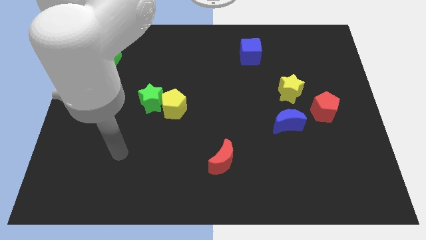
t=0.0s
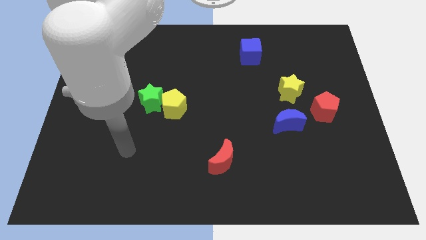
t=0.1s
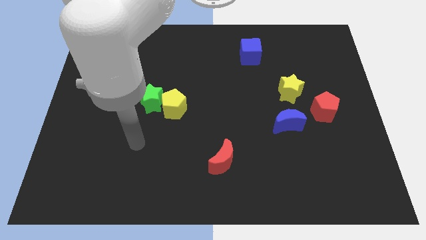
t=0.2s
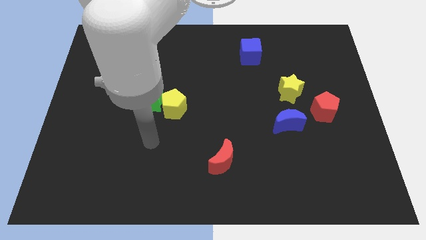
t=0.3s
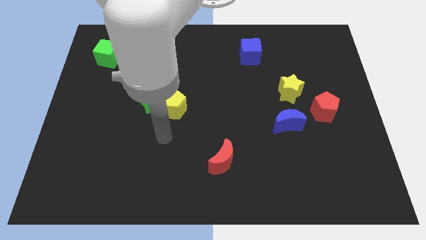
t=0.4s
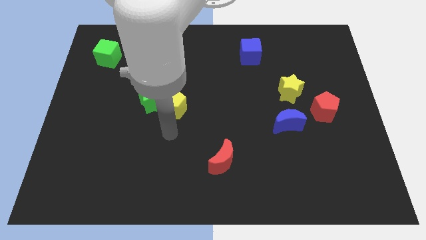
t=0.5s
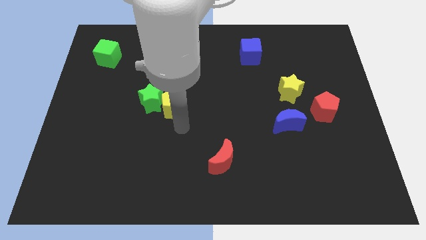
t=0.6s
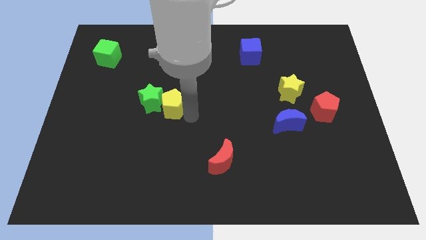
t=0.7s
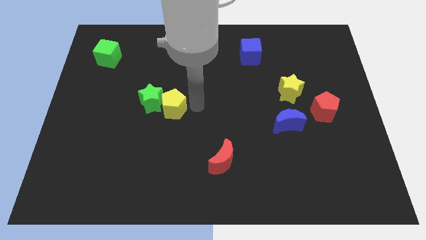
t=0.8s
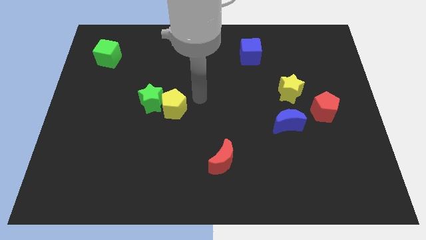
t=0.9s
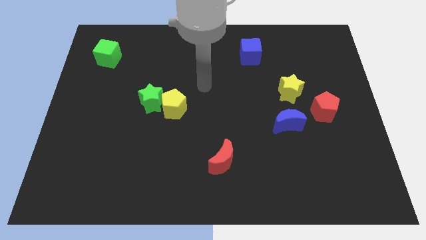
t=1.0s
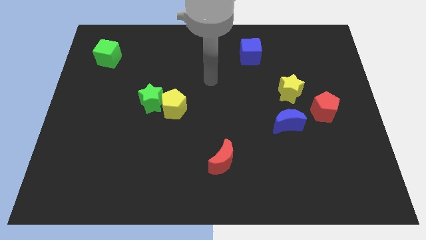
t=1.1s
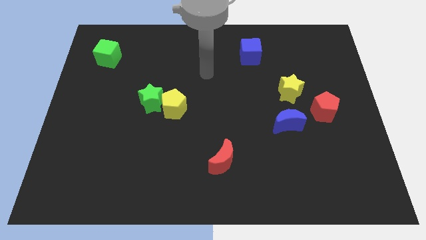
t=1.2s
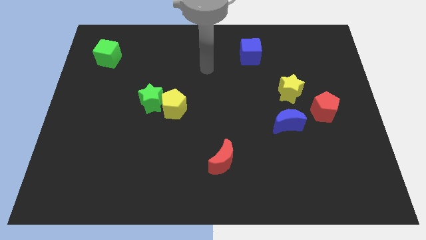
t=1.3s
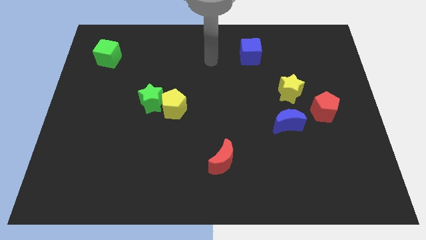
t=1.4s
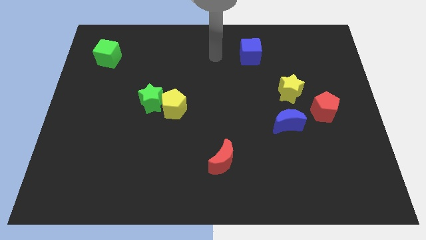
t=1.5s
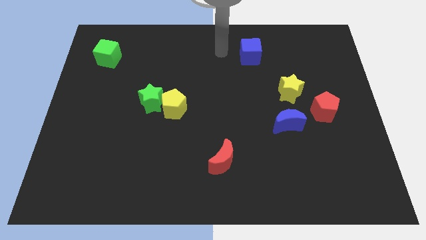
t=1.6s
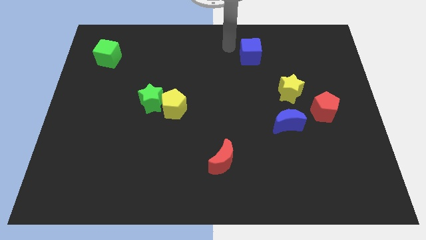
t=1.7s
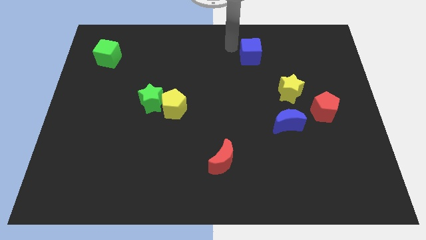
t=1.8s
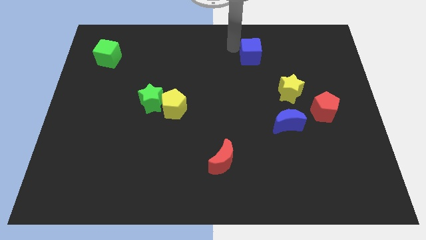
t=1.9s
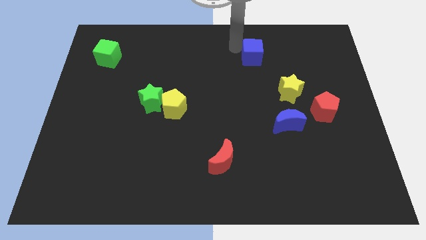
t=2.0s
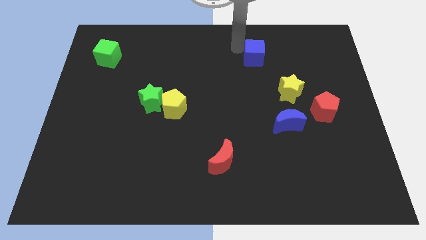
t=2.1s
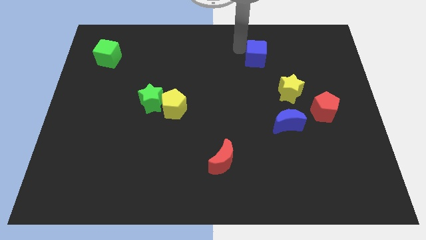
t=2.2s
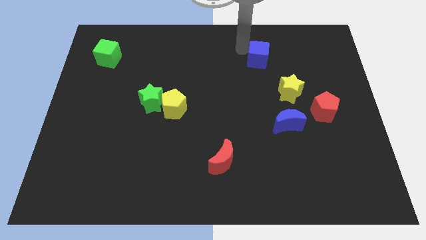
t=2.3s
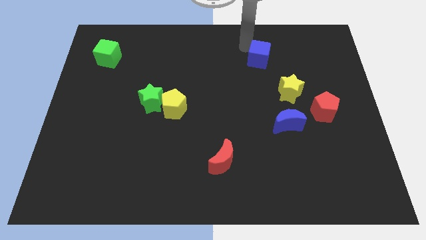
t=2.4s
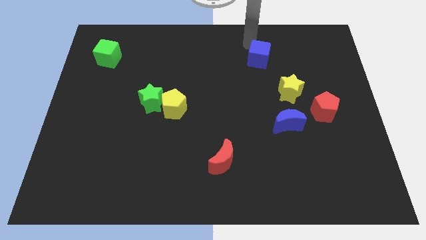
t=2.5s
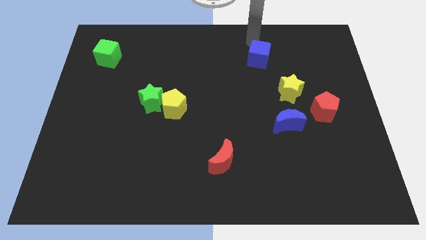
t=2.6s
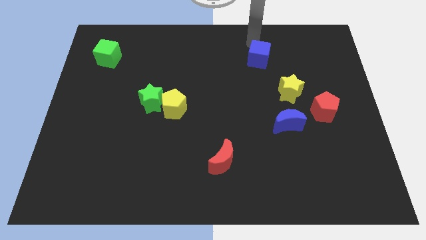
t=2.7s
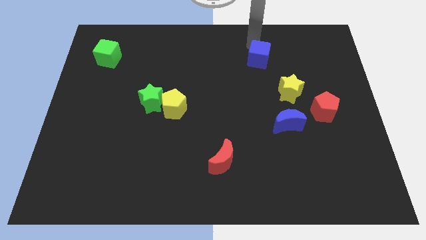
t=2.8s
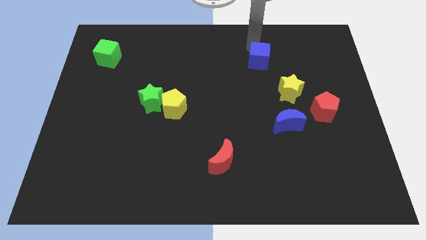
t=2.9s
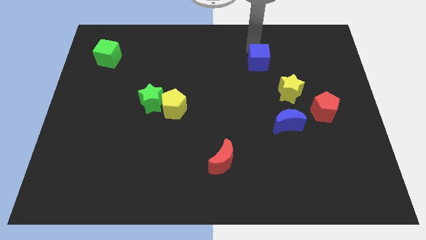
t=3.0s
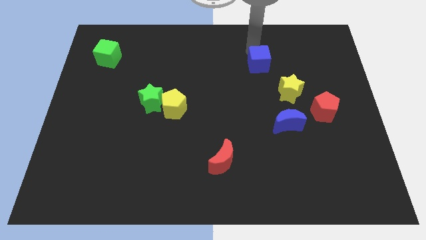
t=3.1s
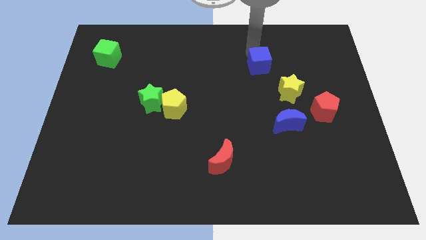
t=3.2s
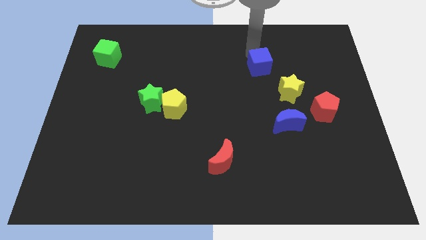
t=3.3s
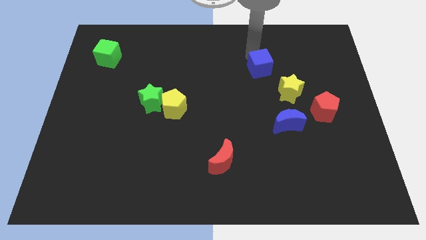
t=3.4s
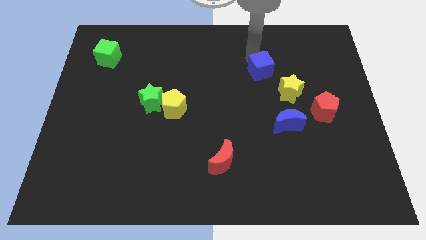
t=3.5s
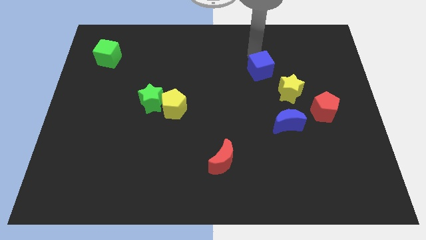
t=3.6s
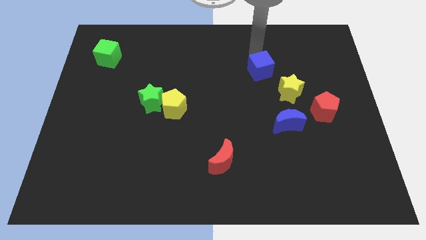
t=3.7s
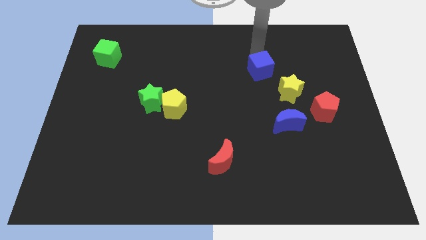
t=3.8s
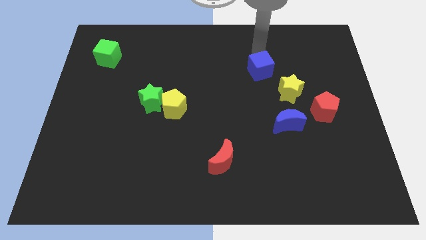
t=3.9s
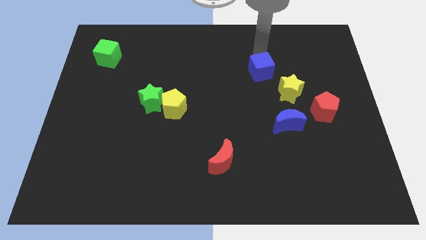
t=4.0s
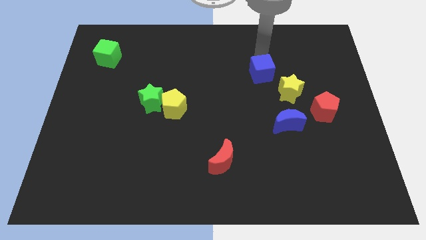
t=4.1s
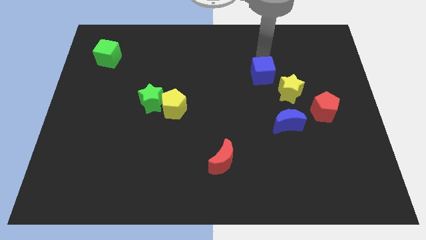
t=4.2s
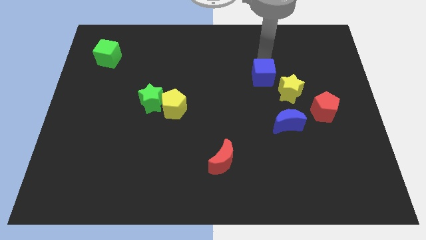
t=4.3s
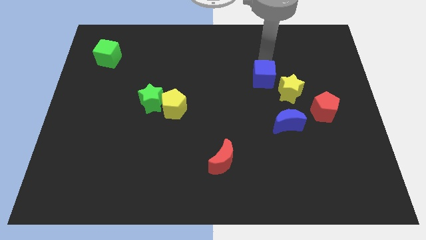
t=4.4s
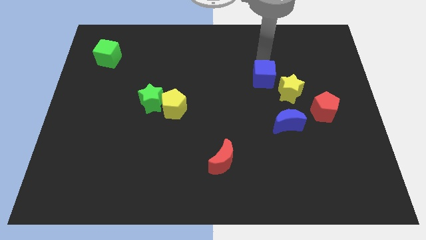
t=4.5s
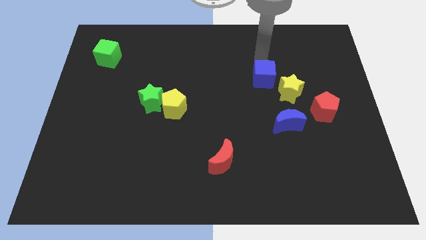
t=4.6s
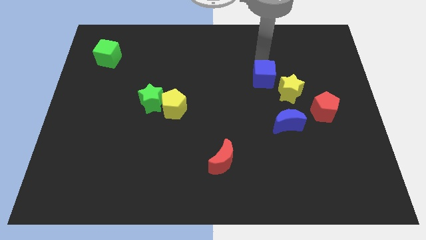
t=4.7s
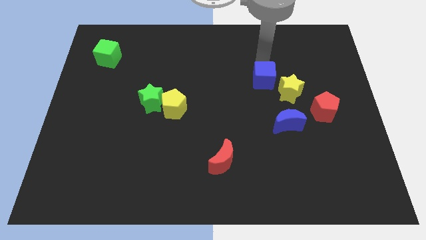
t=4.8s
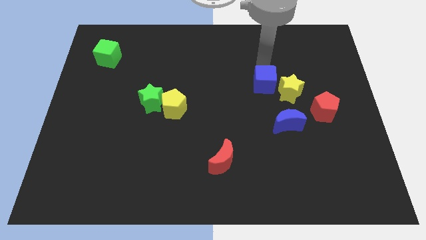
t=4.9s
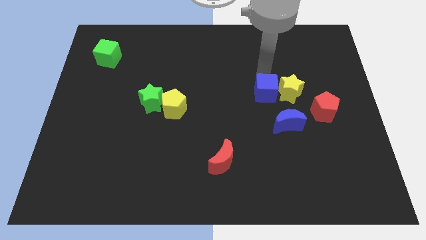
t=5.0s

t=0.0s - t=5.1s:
push the blue cube diagonally down and to the left of the yellow star

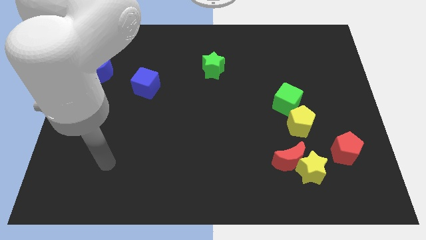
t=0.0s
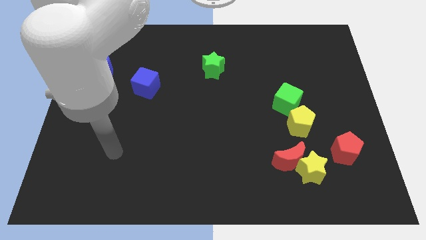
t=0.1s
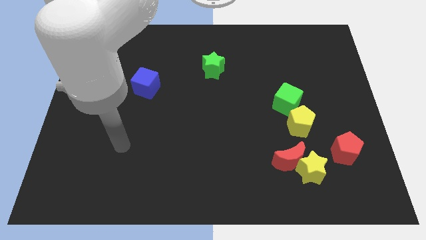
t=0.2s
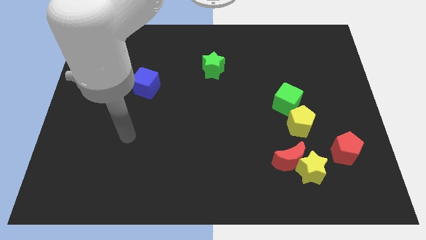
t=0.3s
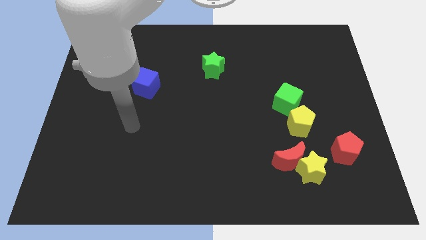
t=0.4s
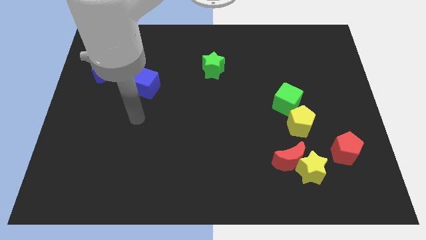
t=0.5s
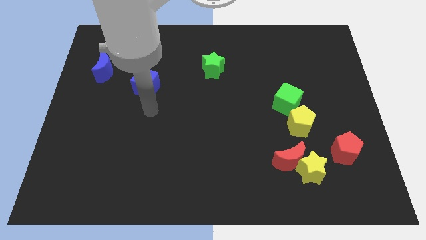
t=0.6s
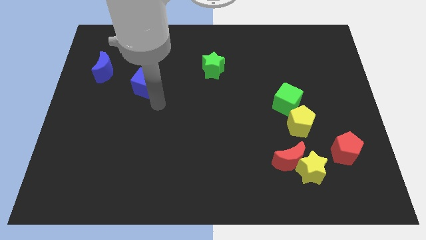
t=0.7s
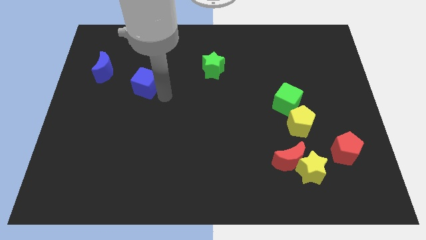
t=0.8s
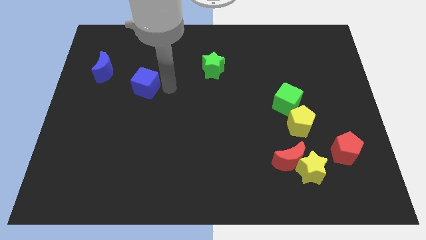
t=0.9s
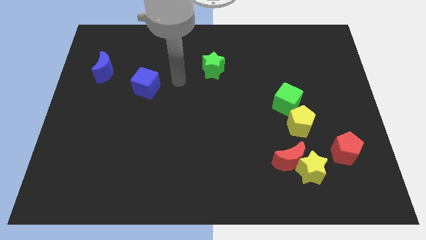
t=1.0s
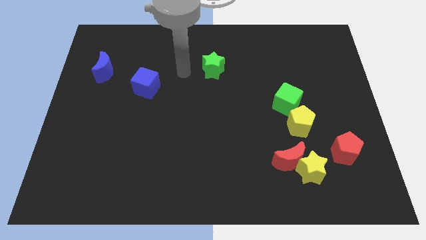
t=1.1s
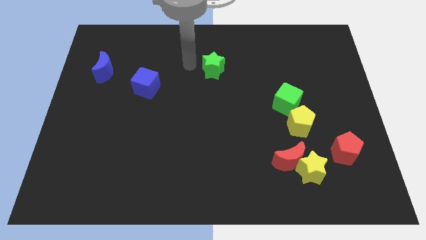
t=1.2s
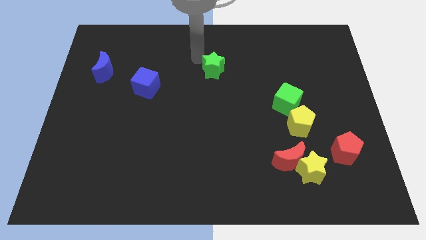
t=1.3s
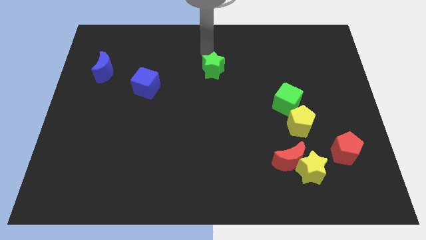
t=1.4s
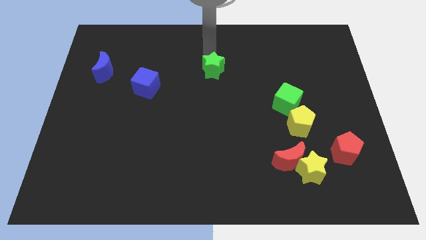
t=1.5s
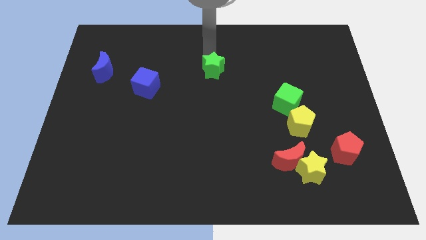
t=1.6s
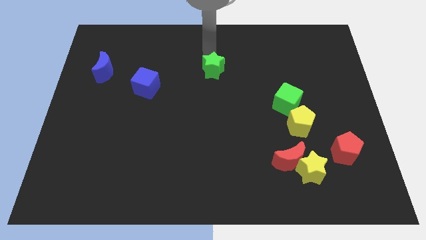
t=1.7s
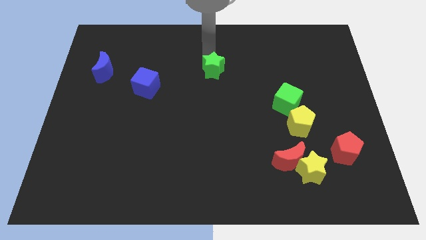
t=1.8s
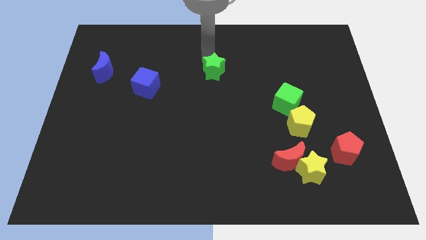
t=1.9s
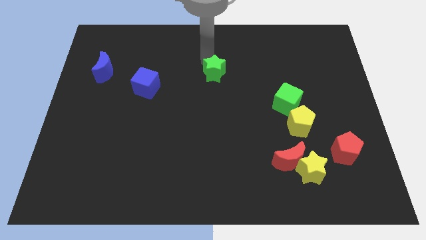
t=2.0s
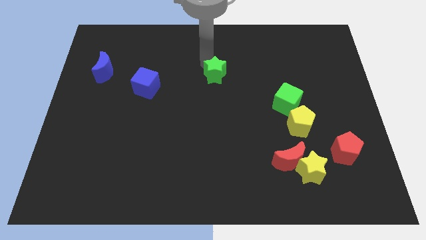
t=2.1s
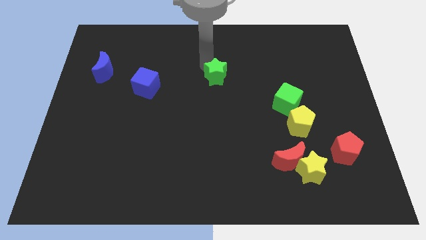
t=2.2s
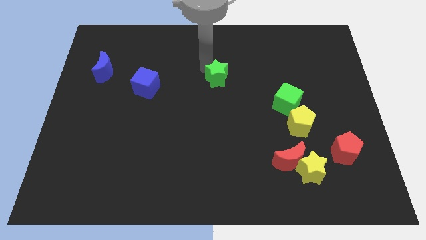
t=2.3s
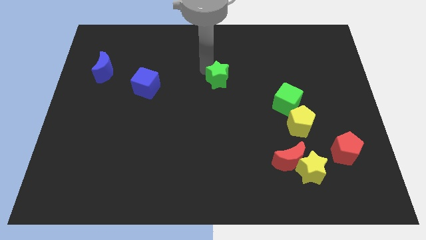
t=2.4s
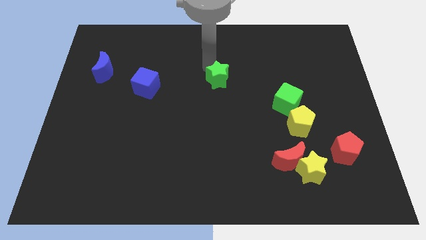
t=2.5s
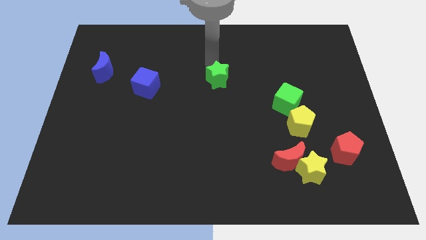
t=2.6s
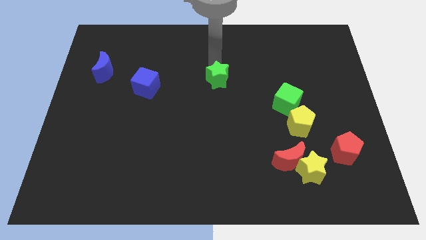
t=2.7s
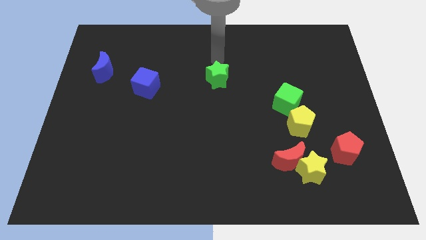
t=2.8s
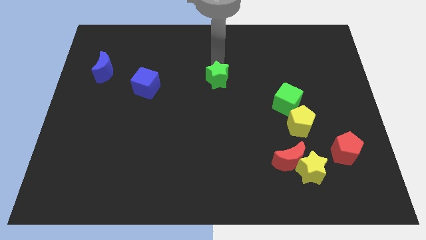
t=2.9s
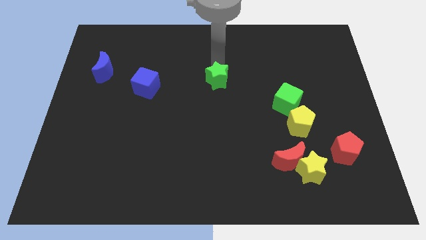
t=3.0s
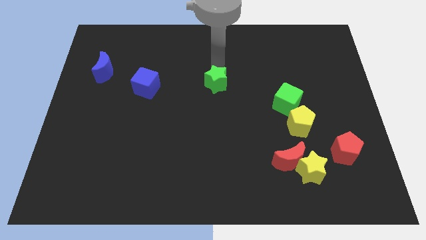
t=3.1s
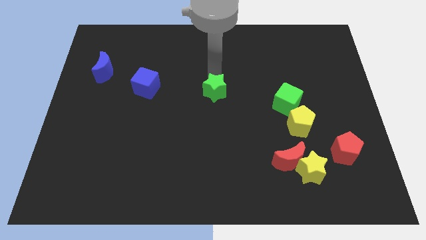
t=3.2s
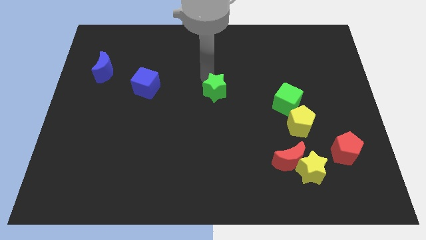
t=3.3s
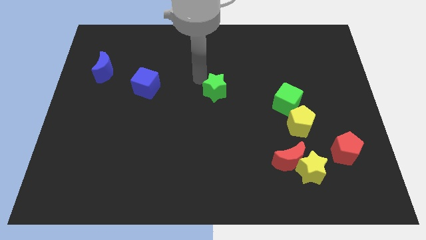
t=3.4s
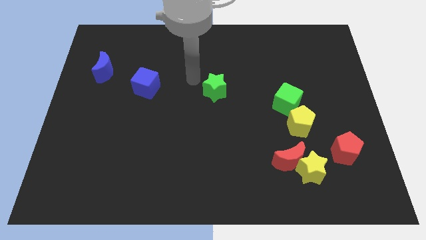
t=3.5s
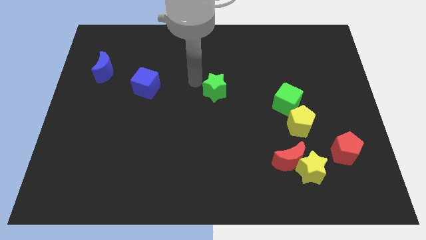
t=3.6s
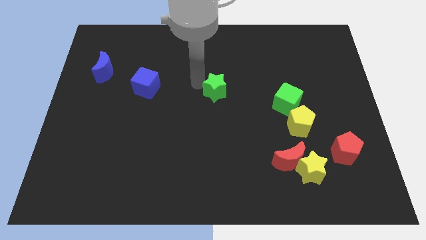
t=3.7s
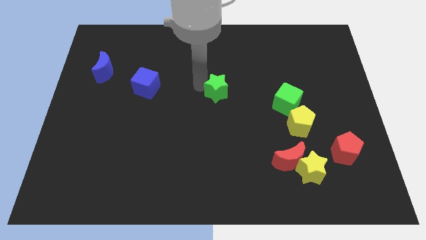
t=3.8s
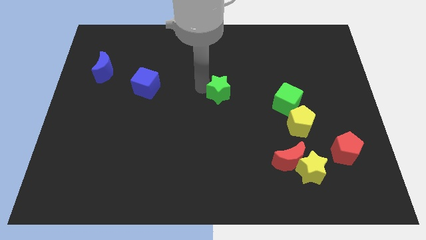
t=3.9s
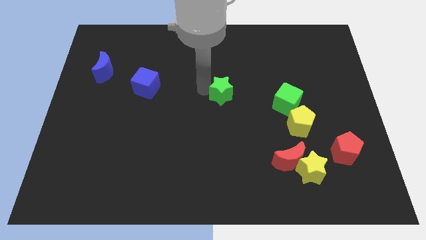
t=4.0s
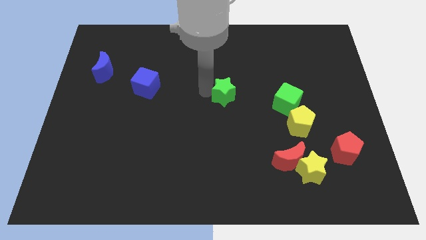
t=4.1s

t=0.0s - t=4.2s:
put the green star to the left of the green cube
